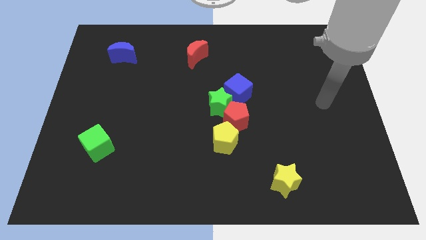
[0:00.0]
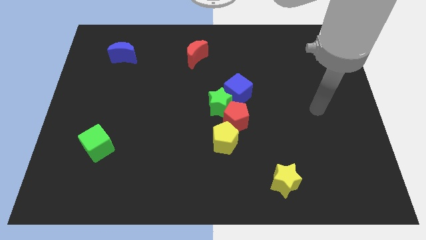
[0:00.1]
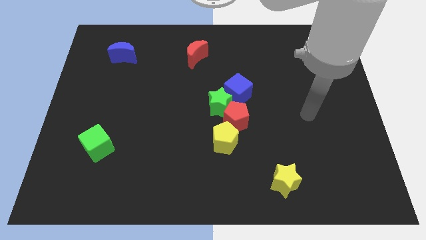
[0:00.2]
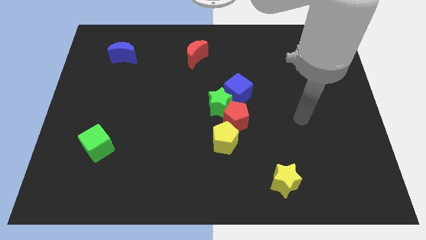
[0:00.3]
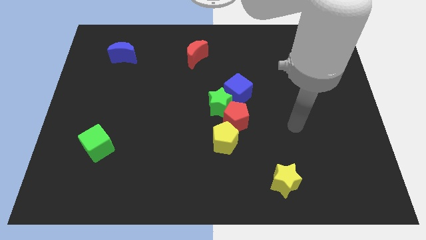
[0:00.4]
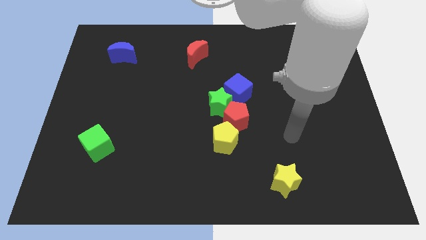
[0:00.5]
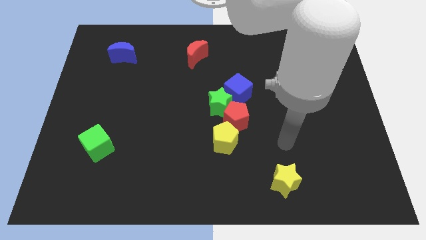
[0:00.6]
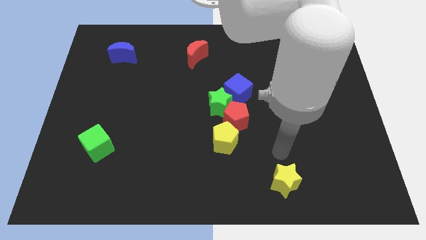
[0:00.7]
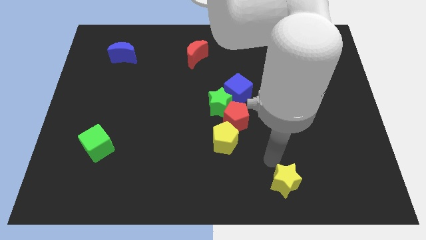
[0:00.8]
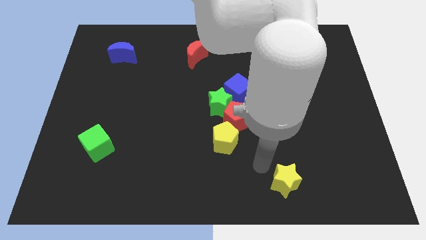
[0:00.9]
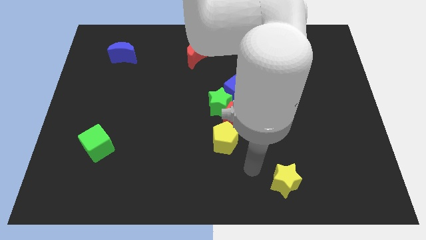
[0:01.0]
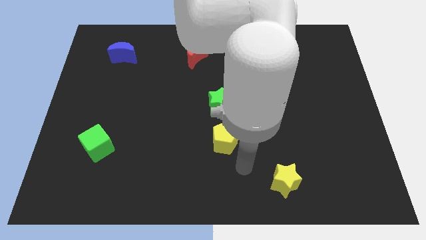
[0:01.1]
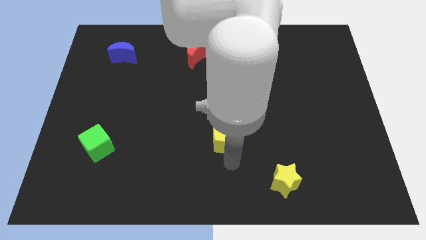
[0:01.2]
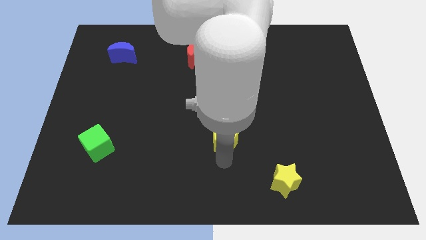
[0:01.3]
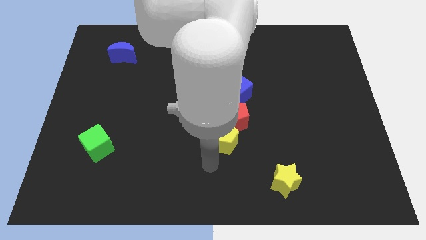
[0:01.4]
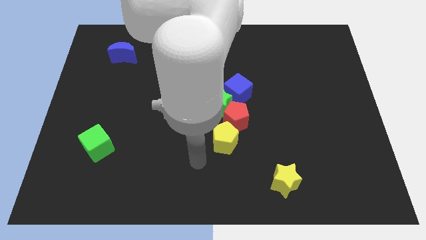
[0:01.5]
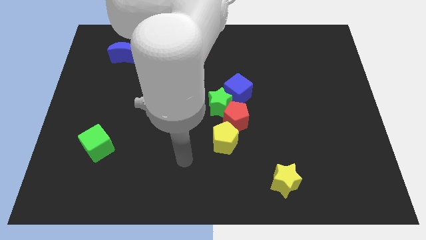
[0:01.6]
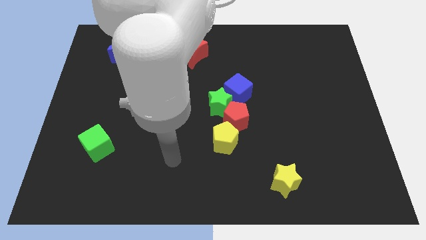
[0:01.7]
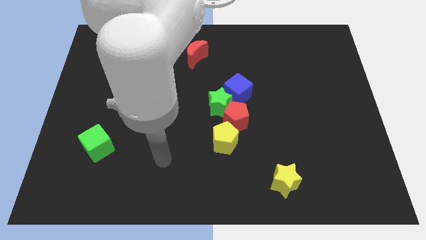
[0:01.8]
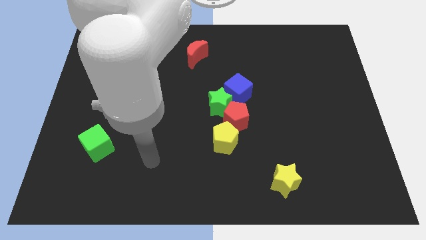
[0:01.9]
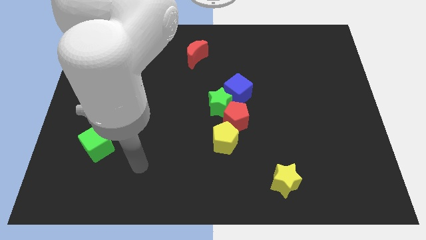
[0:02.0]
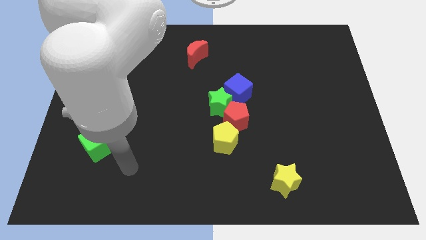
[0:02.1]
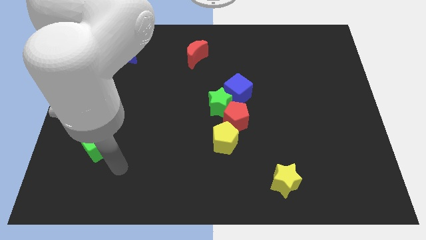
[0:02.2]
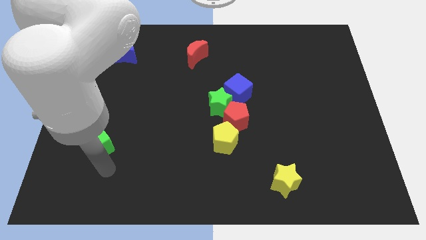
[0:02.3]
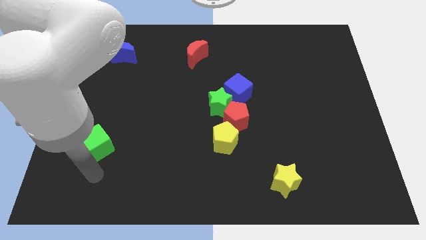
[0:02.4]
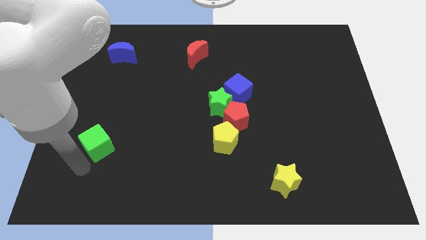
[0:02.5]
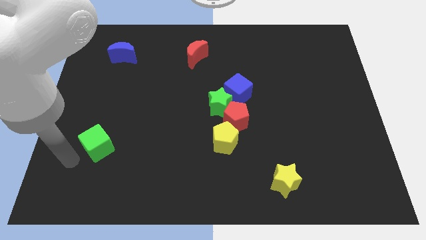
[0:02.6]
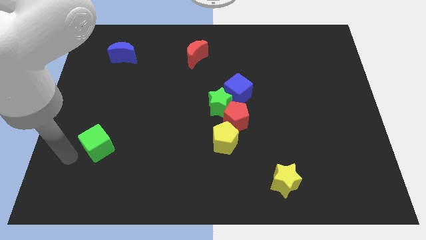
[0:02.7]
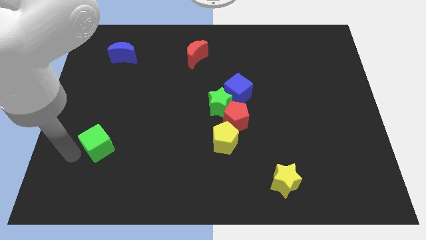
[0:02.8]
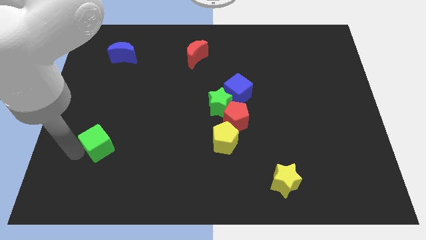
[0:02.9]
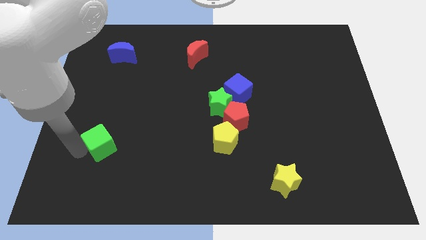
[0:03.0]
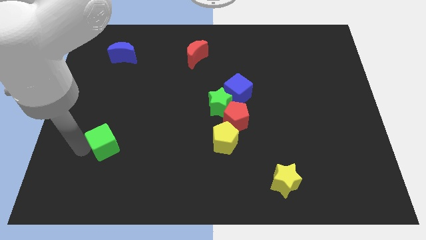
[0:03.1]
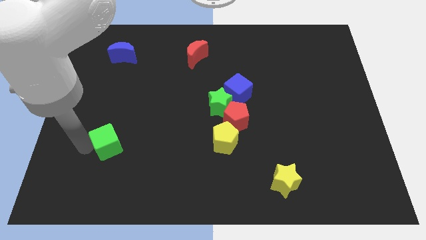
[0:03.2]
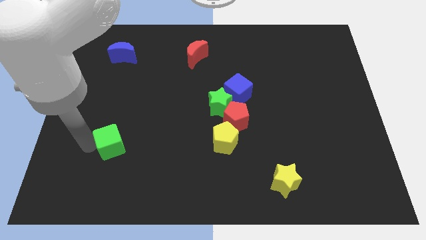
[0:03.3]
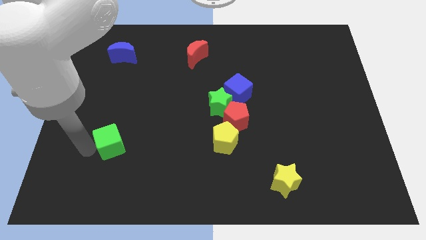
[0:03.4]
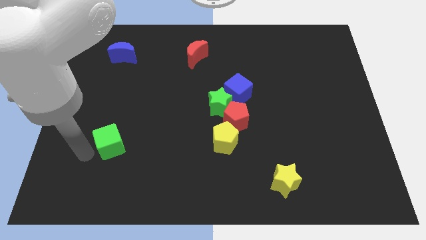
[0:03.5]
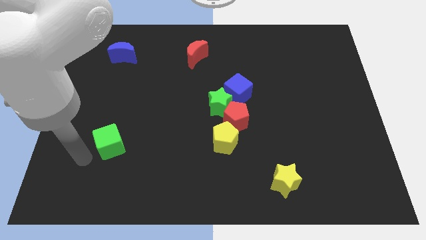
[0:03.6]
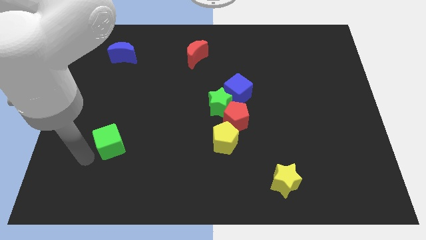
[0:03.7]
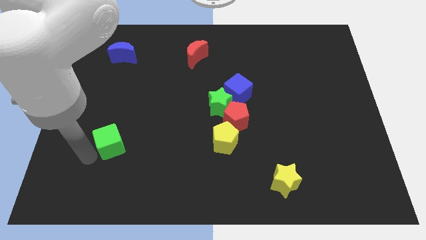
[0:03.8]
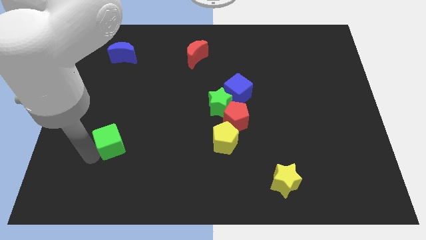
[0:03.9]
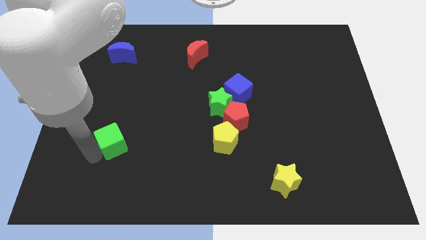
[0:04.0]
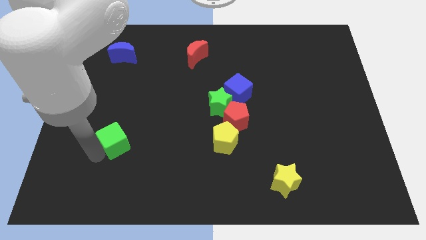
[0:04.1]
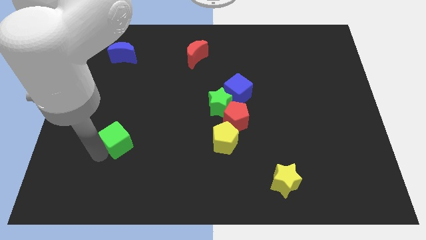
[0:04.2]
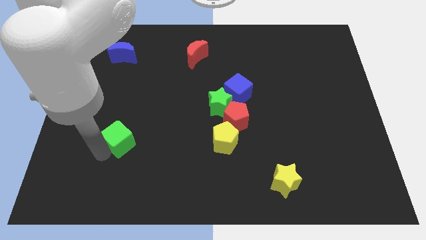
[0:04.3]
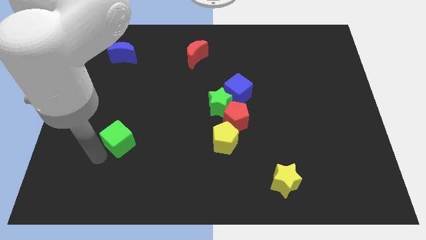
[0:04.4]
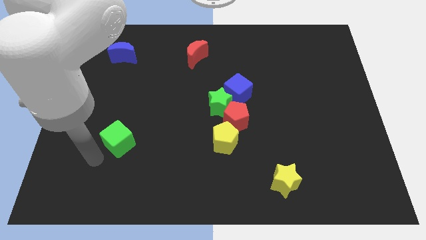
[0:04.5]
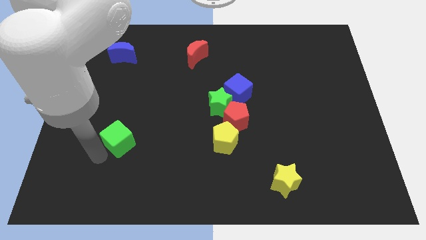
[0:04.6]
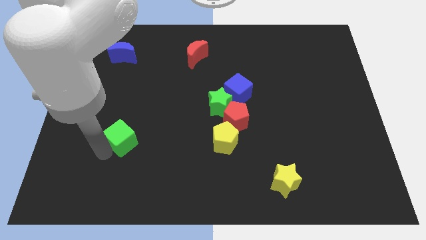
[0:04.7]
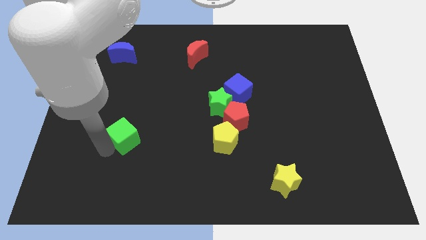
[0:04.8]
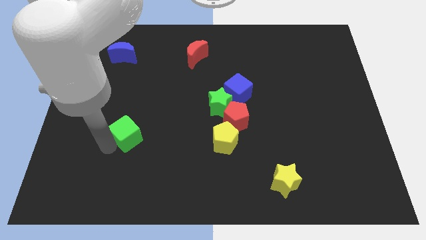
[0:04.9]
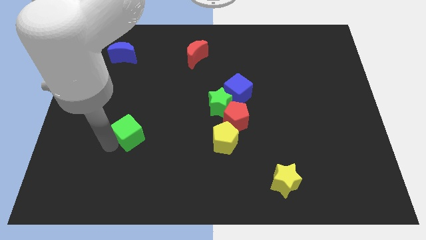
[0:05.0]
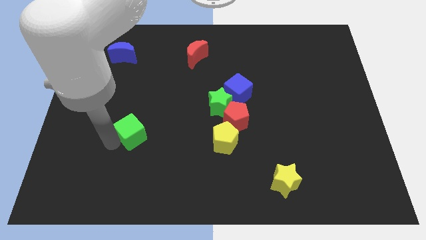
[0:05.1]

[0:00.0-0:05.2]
push the green cube up and then to the right somewhat

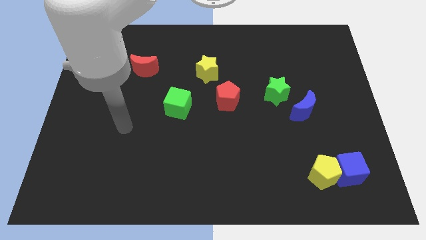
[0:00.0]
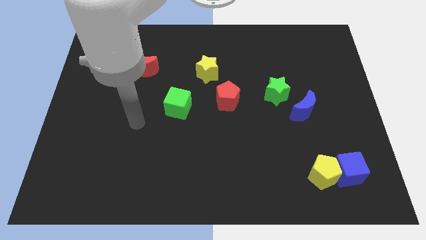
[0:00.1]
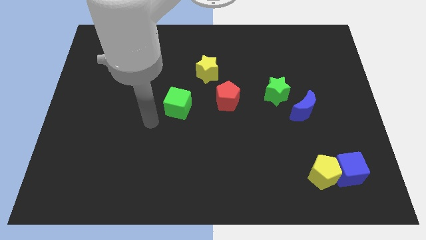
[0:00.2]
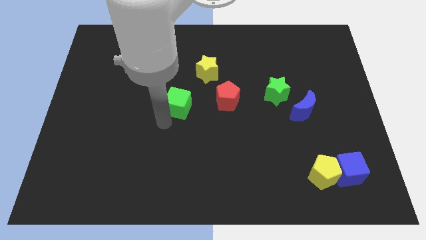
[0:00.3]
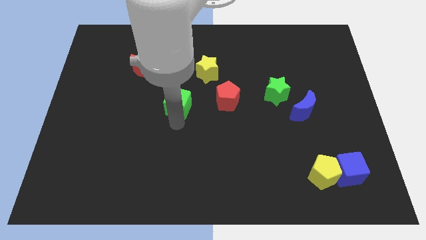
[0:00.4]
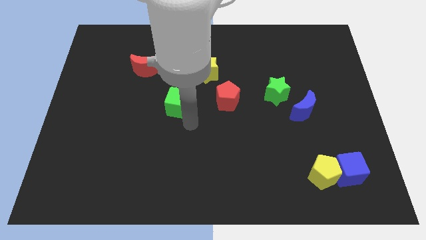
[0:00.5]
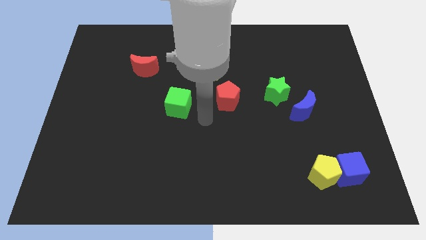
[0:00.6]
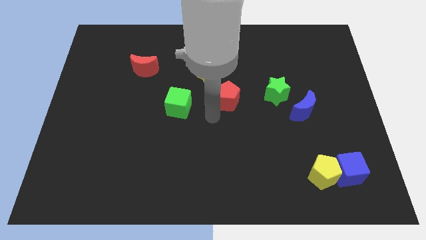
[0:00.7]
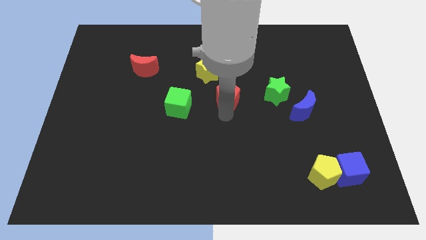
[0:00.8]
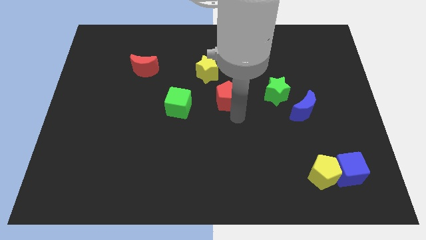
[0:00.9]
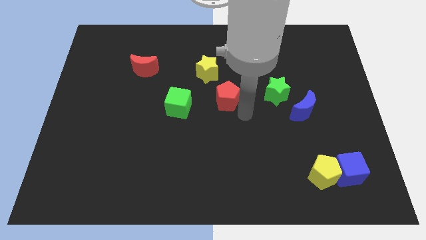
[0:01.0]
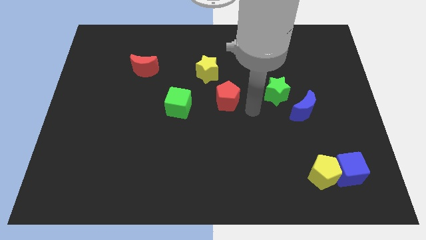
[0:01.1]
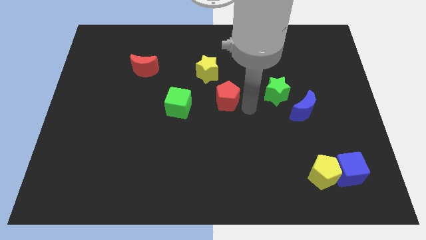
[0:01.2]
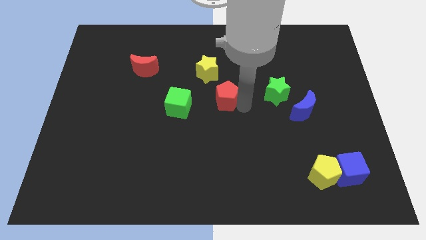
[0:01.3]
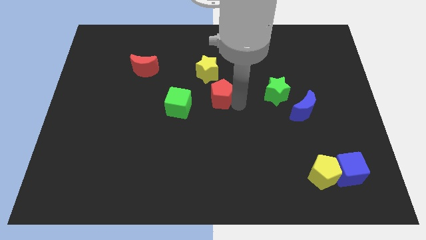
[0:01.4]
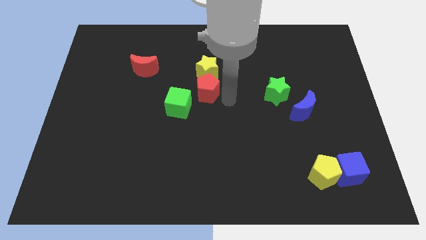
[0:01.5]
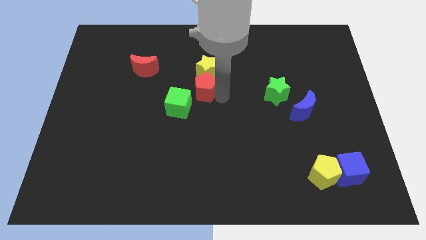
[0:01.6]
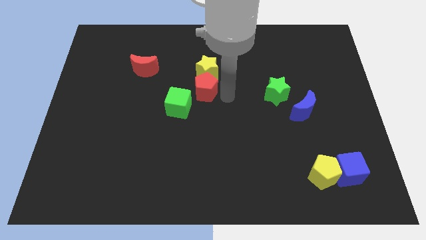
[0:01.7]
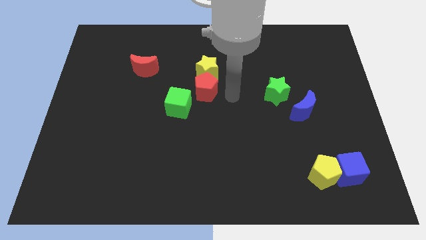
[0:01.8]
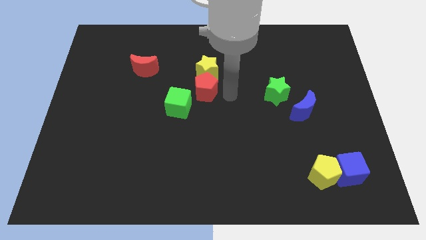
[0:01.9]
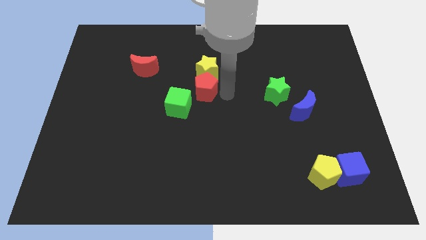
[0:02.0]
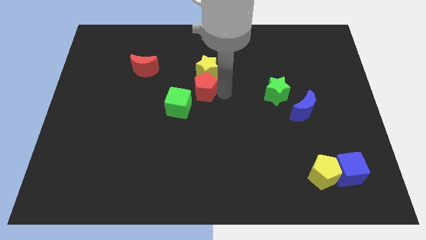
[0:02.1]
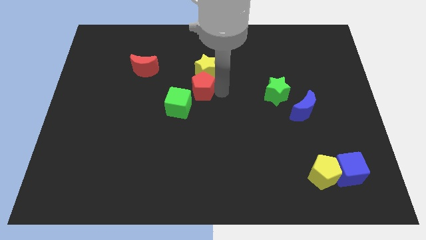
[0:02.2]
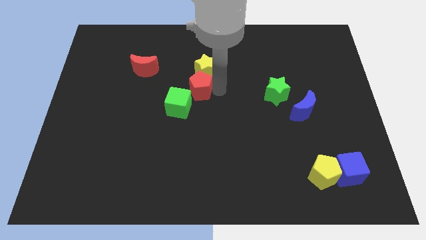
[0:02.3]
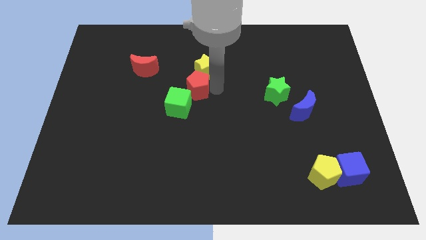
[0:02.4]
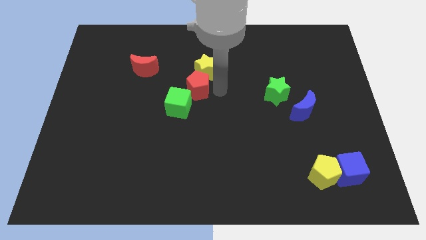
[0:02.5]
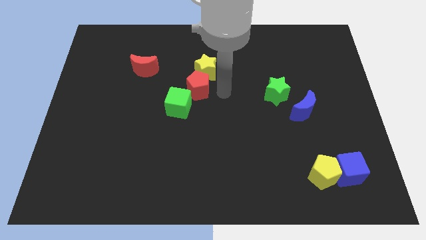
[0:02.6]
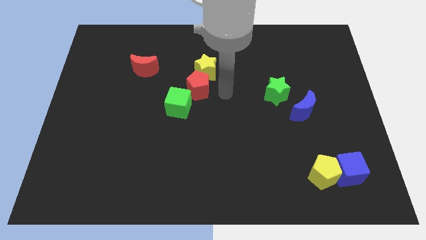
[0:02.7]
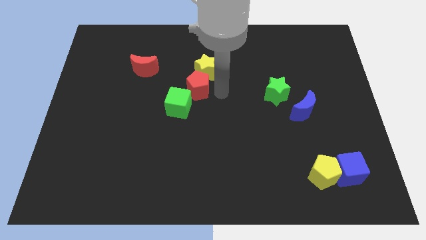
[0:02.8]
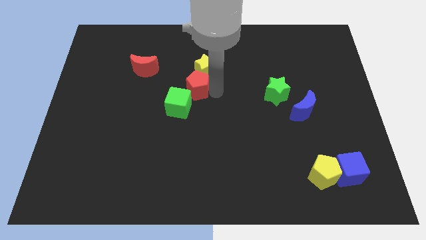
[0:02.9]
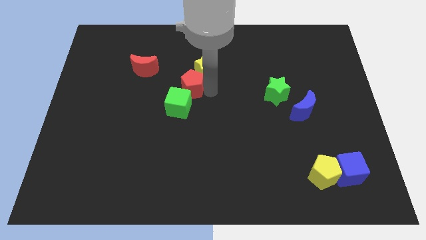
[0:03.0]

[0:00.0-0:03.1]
push the red pentagon left a bit

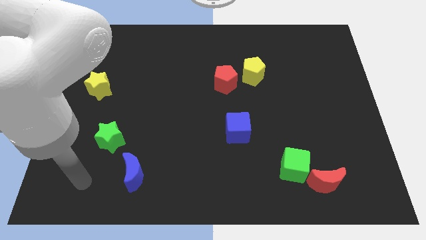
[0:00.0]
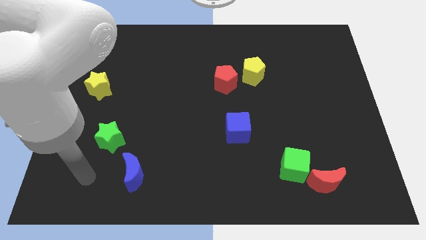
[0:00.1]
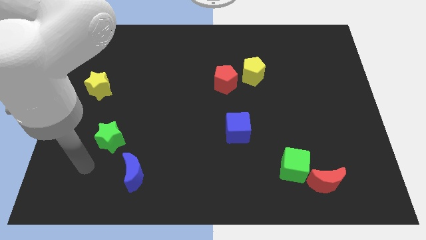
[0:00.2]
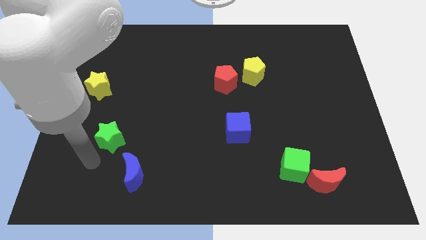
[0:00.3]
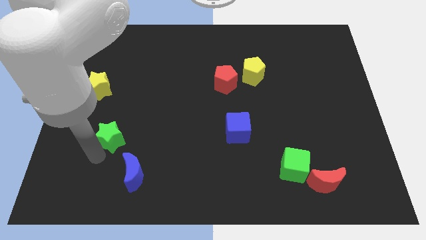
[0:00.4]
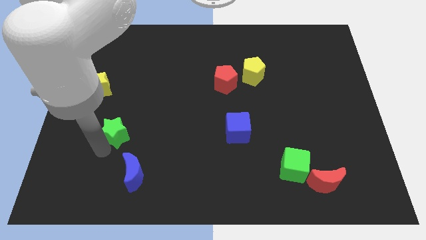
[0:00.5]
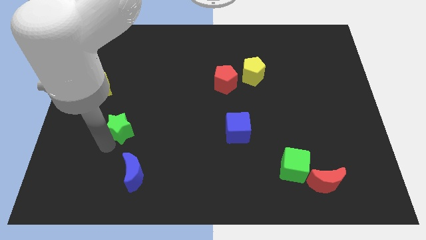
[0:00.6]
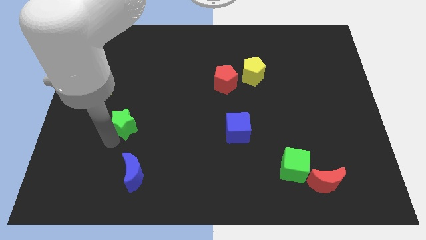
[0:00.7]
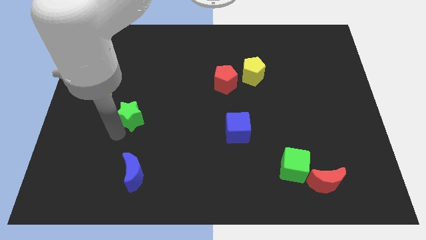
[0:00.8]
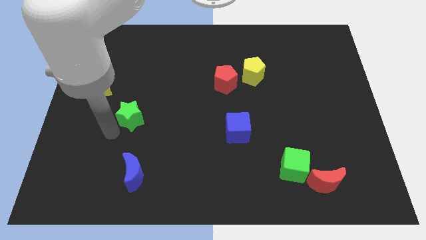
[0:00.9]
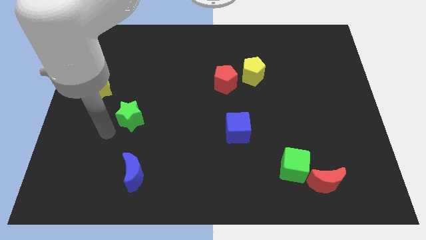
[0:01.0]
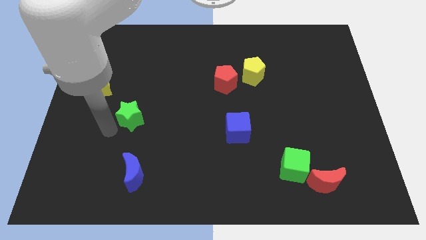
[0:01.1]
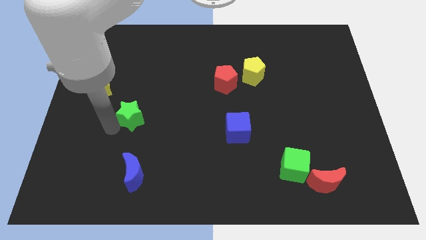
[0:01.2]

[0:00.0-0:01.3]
move the green star up and then right a little bit
